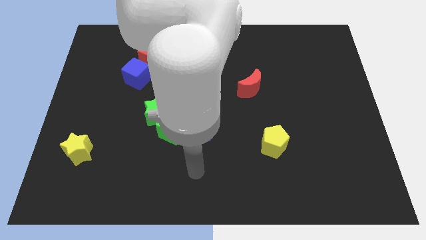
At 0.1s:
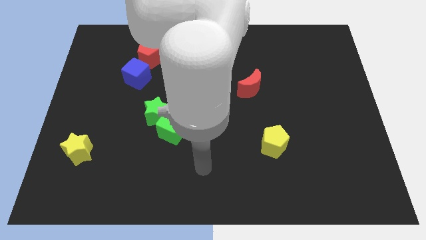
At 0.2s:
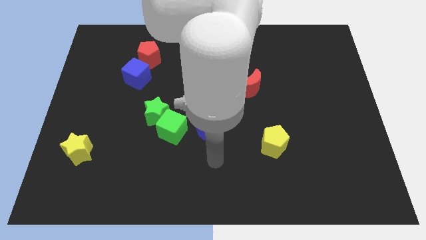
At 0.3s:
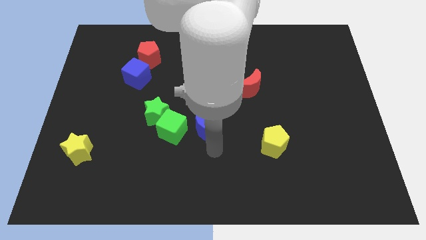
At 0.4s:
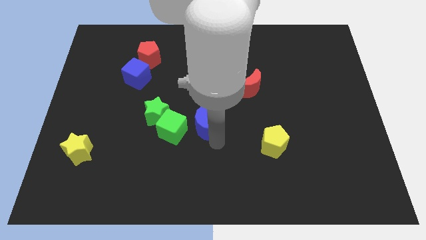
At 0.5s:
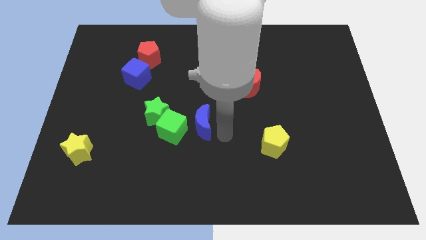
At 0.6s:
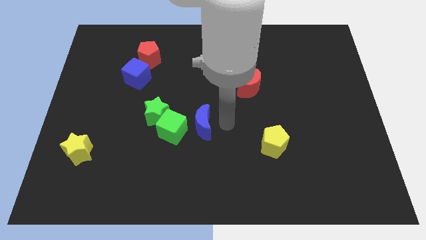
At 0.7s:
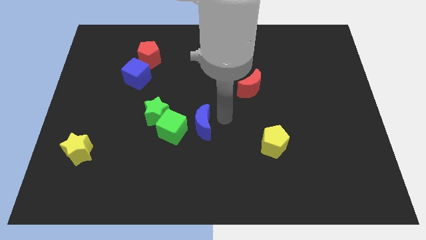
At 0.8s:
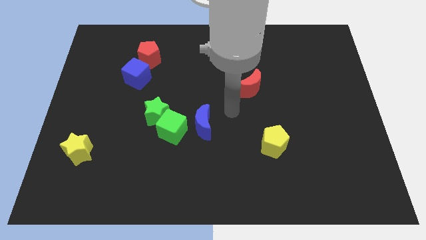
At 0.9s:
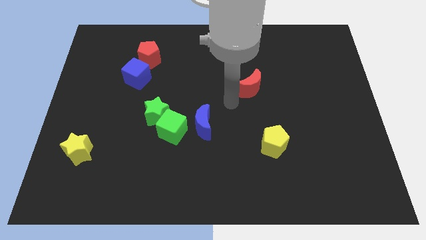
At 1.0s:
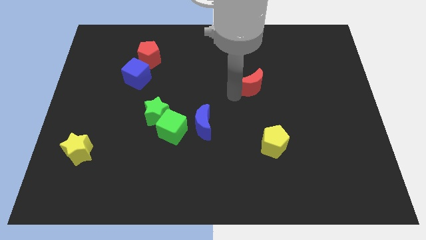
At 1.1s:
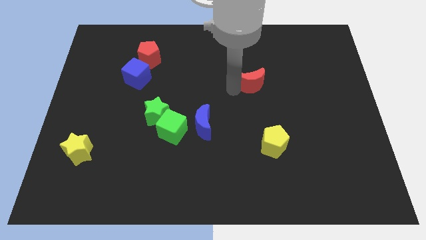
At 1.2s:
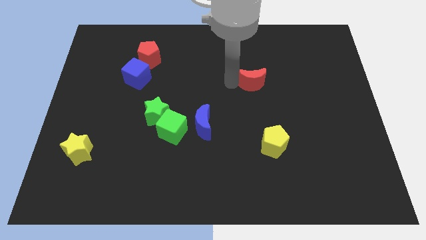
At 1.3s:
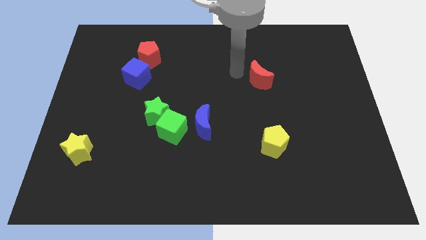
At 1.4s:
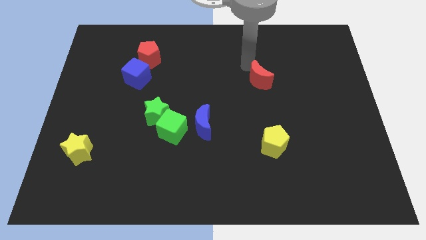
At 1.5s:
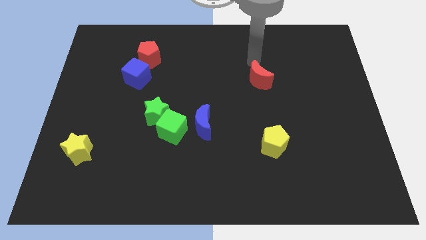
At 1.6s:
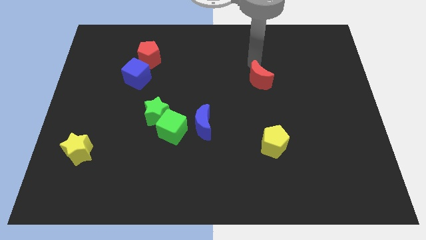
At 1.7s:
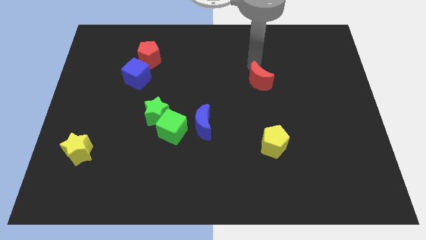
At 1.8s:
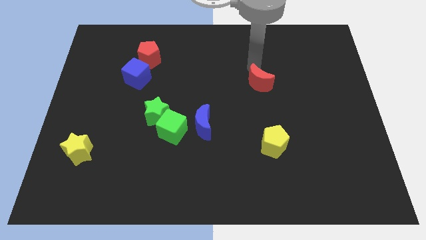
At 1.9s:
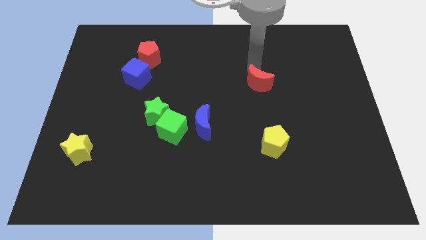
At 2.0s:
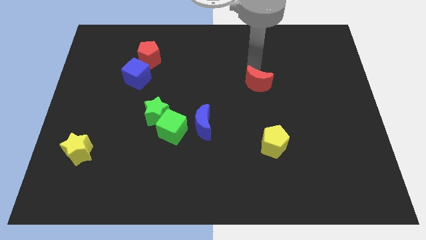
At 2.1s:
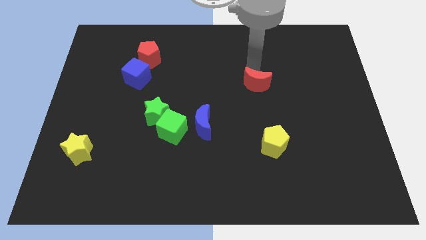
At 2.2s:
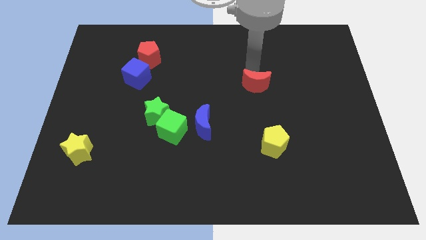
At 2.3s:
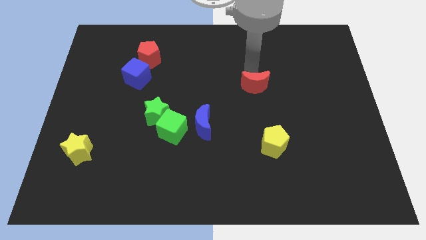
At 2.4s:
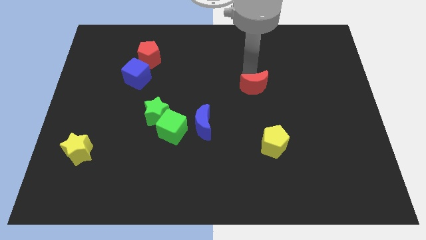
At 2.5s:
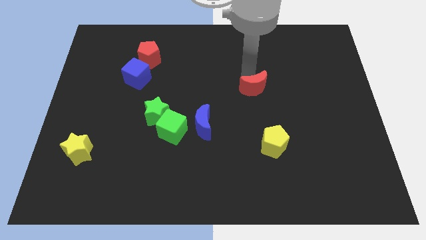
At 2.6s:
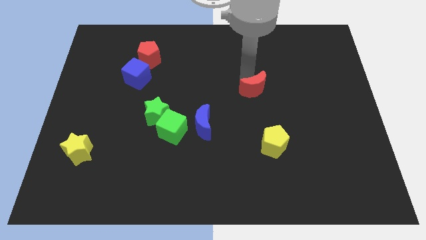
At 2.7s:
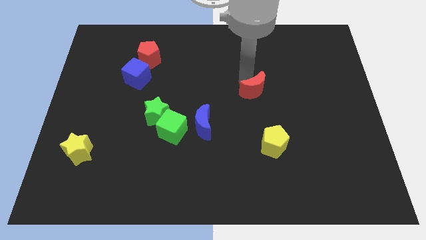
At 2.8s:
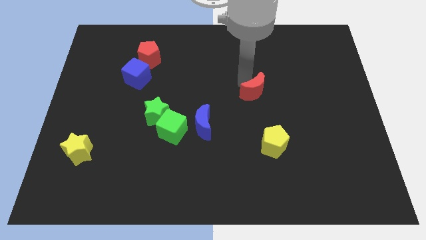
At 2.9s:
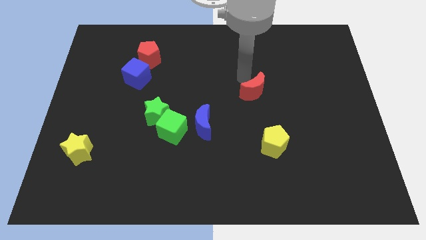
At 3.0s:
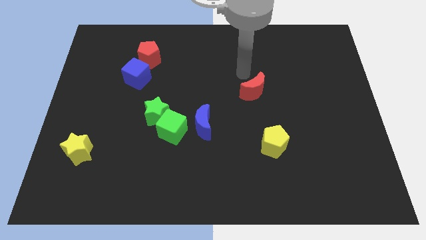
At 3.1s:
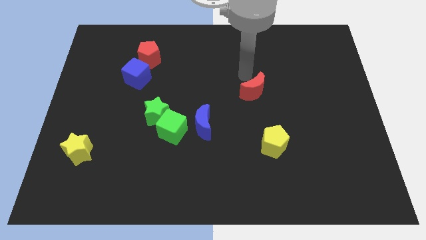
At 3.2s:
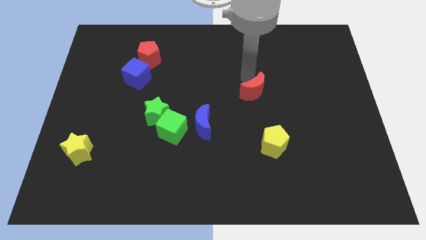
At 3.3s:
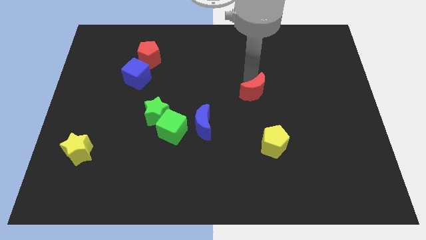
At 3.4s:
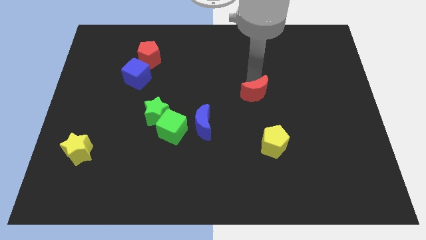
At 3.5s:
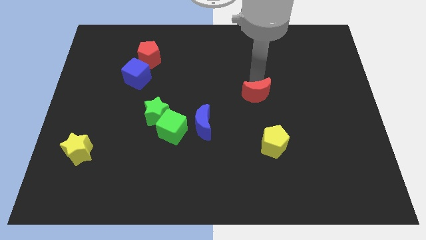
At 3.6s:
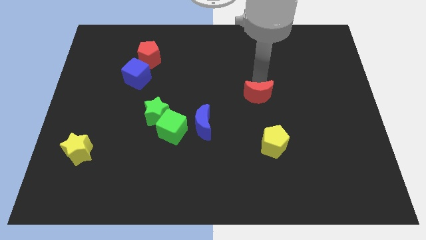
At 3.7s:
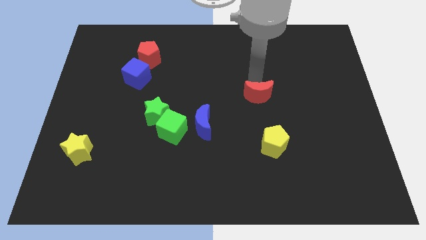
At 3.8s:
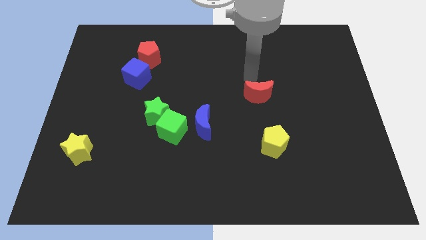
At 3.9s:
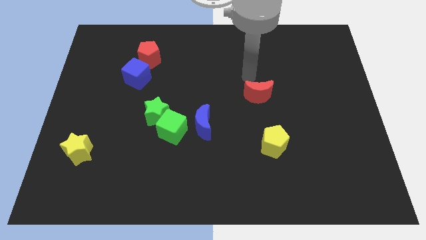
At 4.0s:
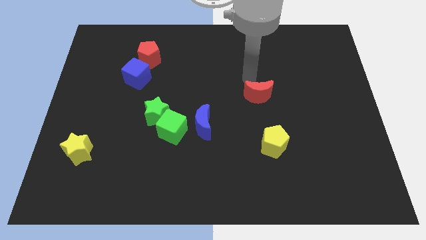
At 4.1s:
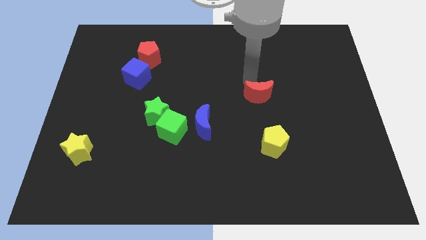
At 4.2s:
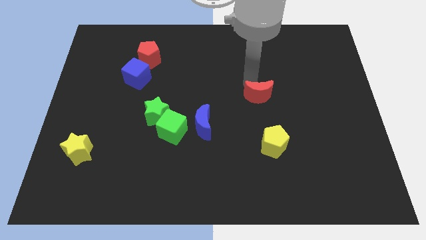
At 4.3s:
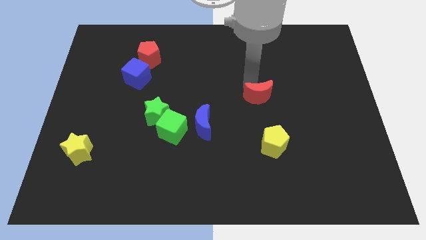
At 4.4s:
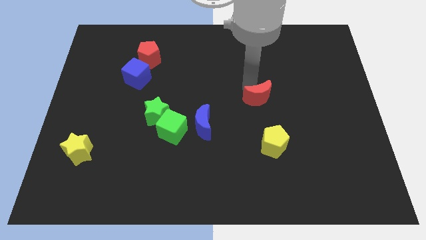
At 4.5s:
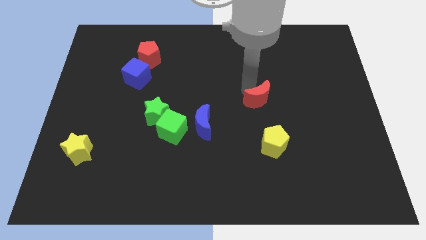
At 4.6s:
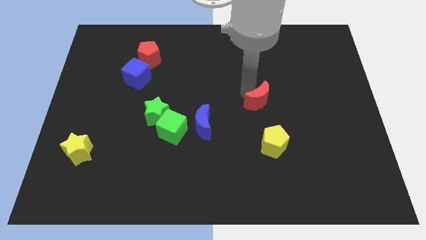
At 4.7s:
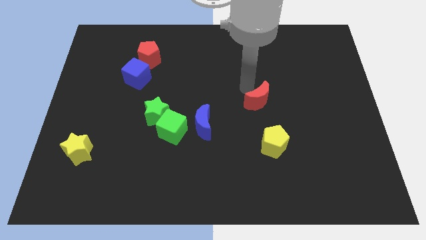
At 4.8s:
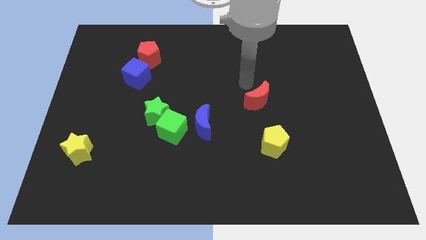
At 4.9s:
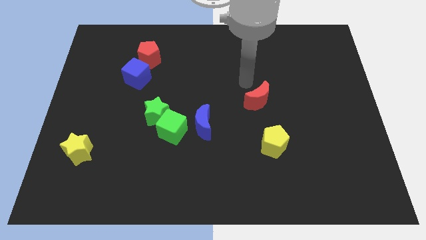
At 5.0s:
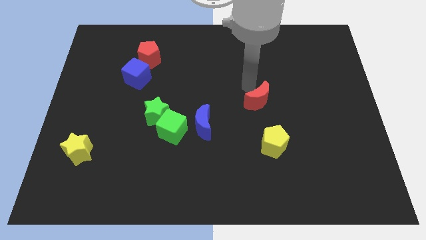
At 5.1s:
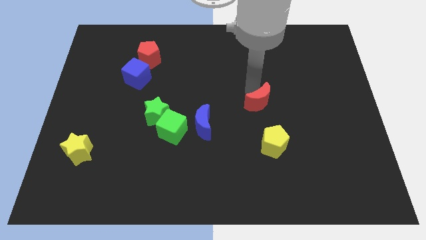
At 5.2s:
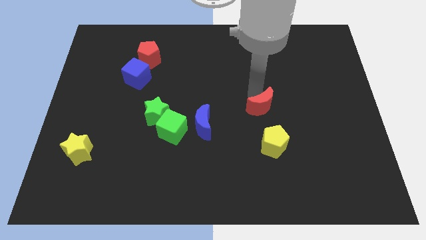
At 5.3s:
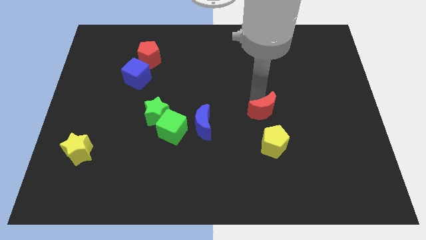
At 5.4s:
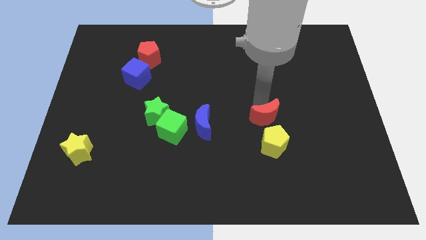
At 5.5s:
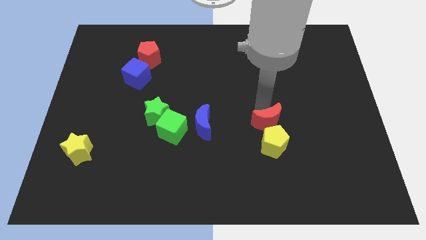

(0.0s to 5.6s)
push the red moon close to the yellow pentagon

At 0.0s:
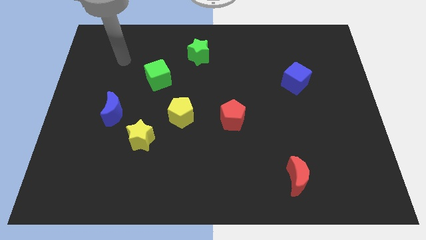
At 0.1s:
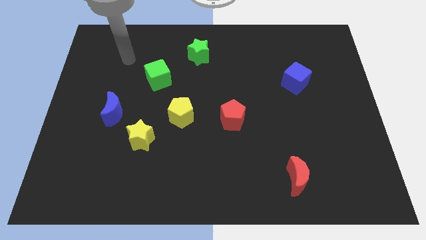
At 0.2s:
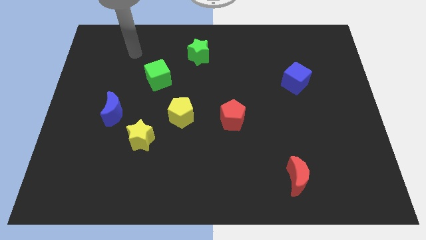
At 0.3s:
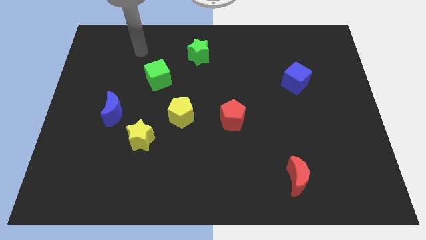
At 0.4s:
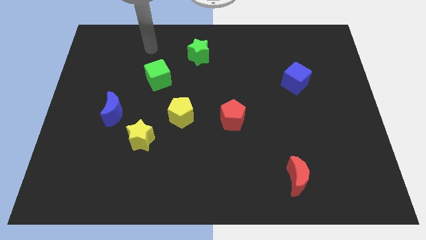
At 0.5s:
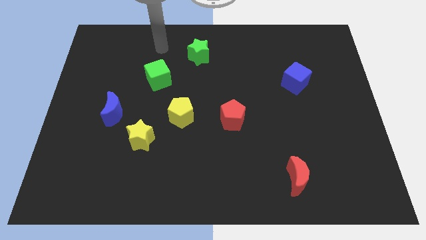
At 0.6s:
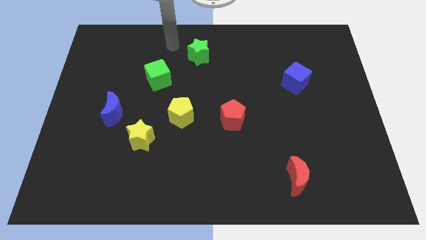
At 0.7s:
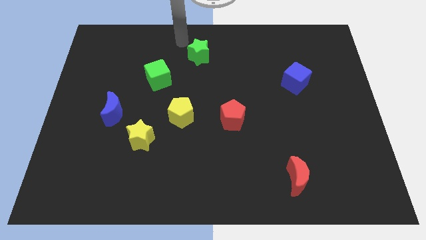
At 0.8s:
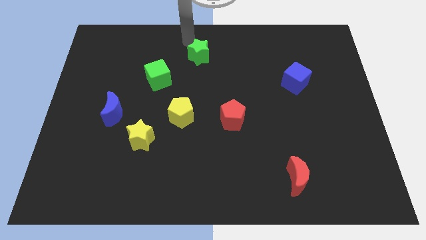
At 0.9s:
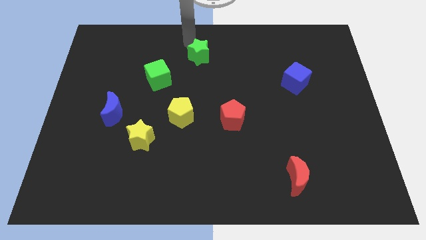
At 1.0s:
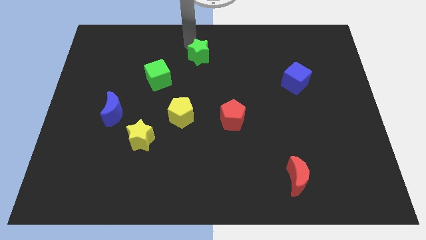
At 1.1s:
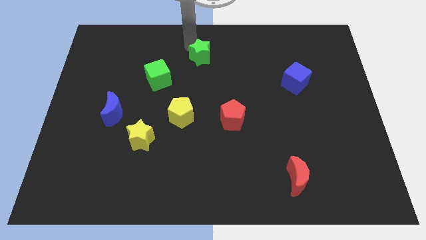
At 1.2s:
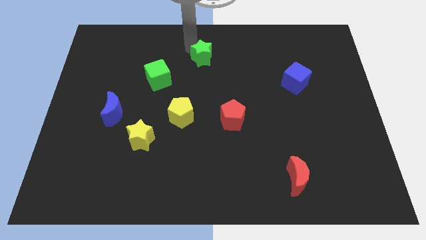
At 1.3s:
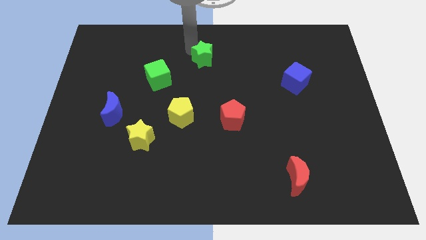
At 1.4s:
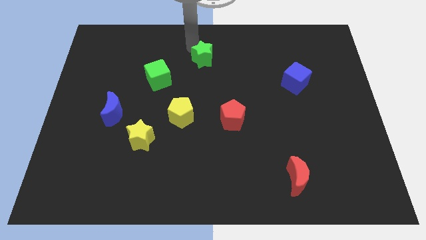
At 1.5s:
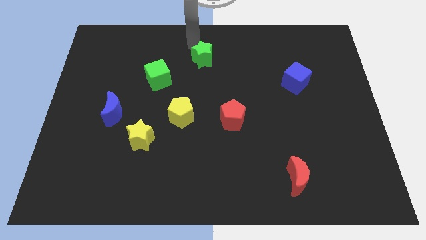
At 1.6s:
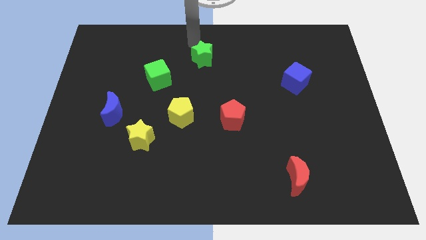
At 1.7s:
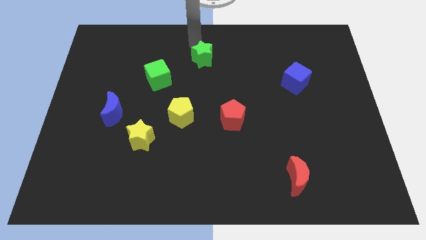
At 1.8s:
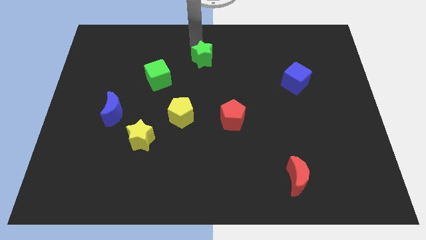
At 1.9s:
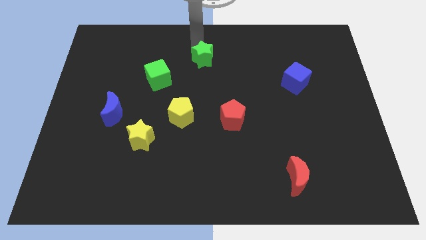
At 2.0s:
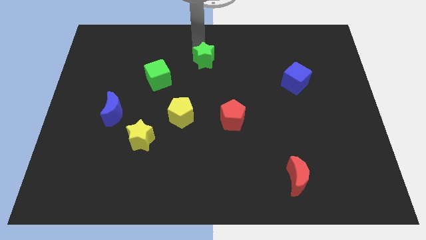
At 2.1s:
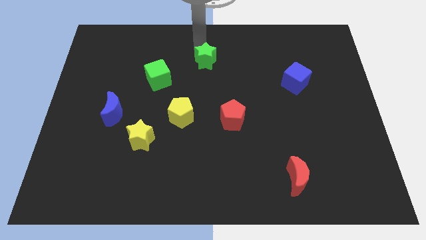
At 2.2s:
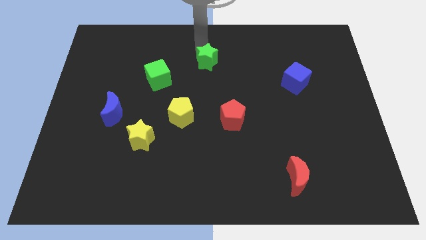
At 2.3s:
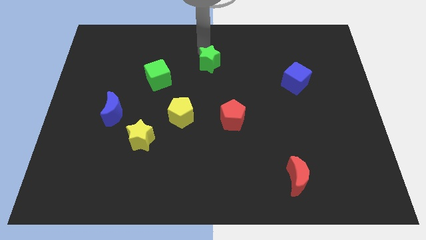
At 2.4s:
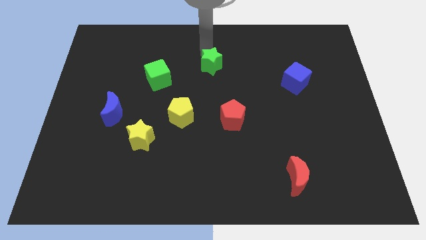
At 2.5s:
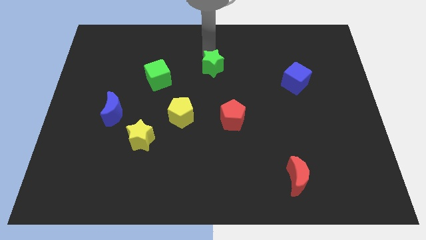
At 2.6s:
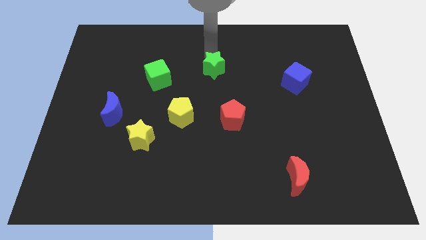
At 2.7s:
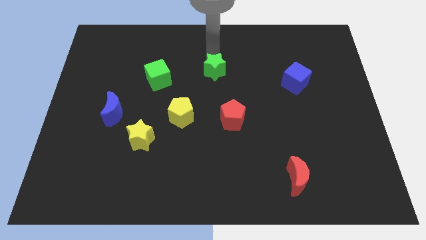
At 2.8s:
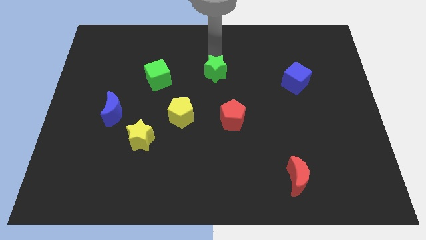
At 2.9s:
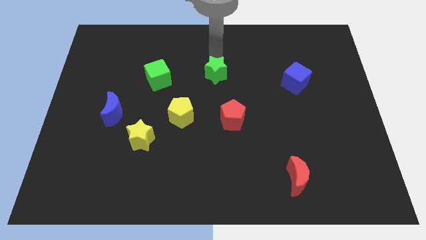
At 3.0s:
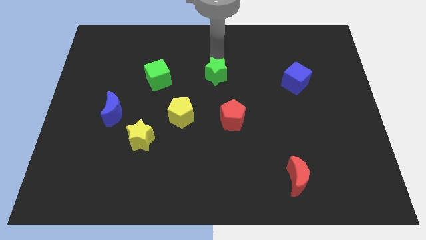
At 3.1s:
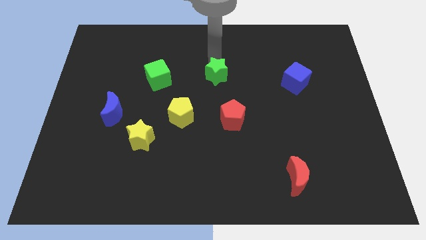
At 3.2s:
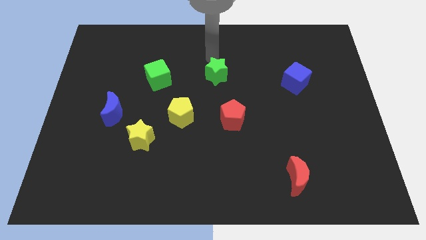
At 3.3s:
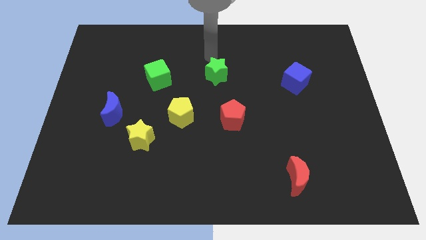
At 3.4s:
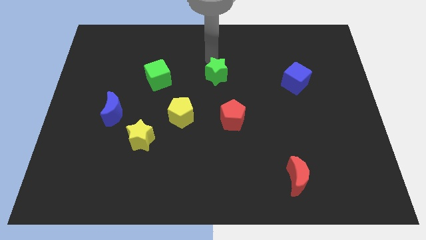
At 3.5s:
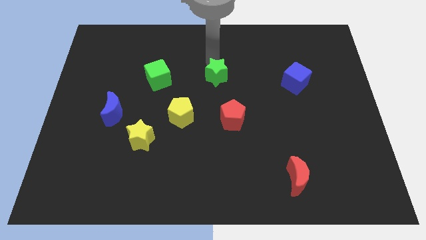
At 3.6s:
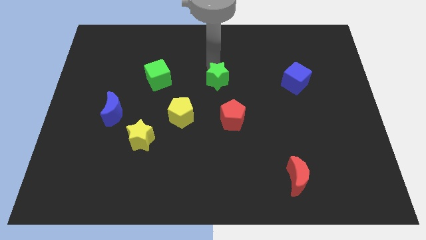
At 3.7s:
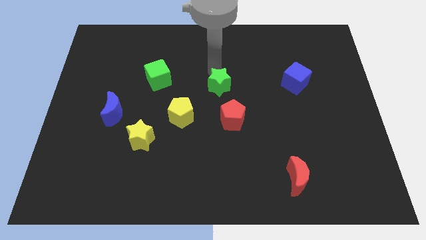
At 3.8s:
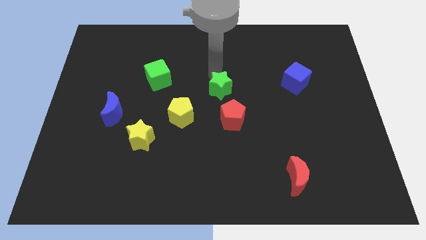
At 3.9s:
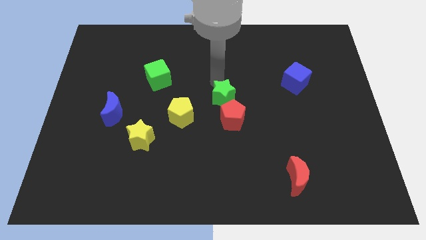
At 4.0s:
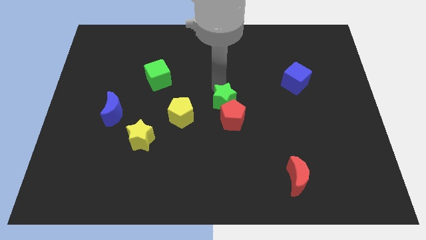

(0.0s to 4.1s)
slide the green star towards the red pentagon
